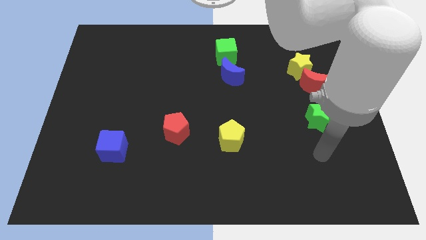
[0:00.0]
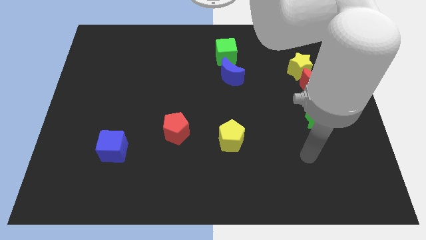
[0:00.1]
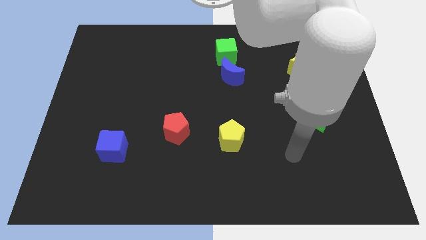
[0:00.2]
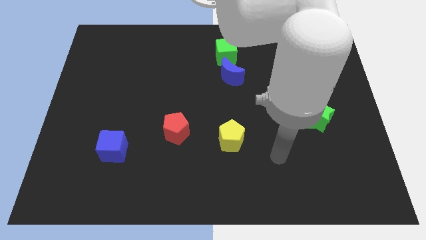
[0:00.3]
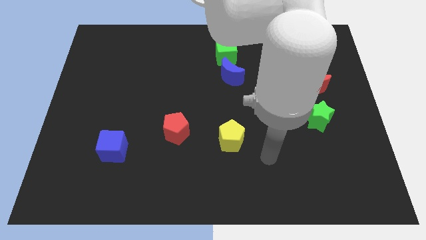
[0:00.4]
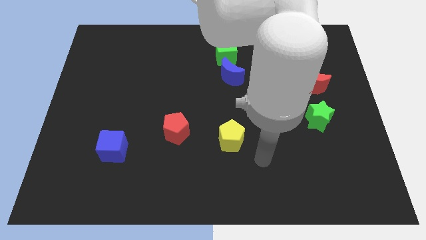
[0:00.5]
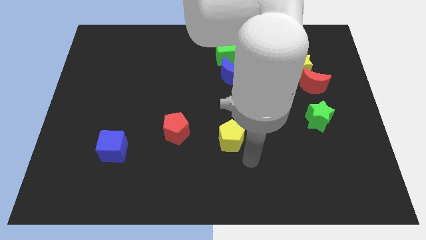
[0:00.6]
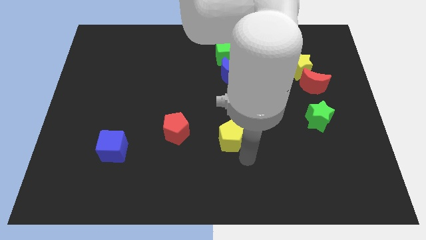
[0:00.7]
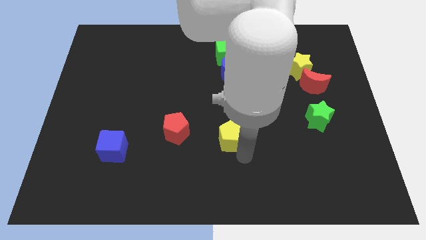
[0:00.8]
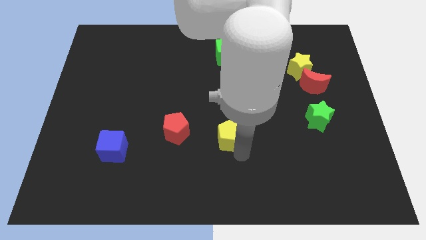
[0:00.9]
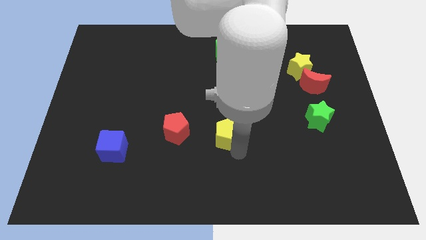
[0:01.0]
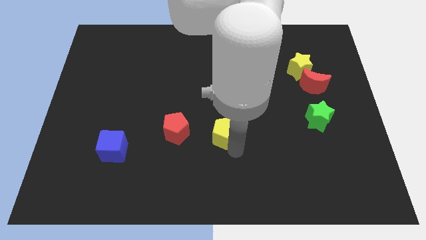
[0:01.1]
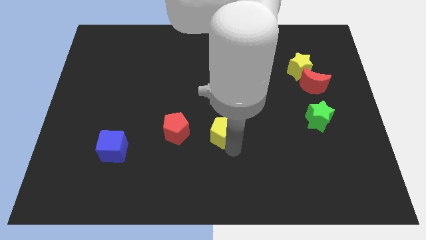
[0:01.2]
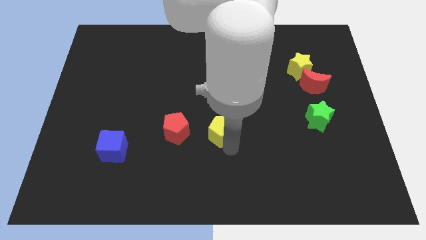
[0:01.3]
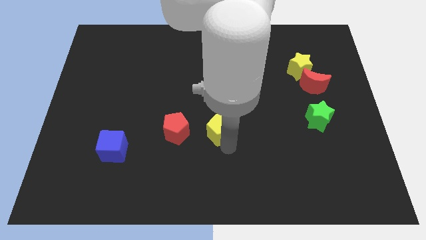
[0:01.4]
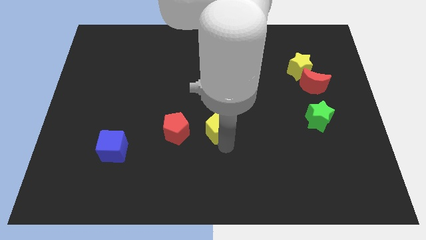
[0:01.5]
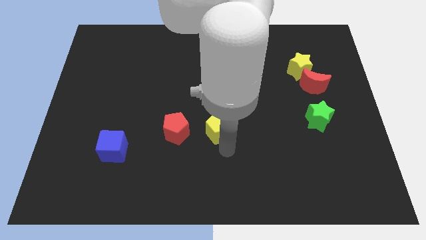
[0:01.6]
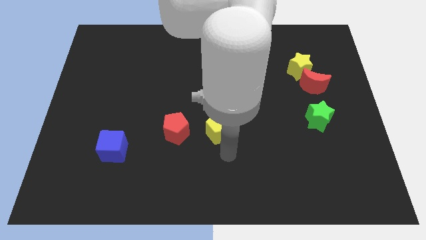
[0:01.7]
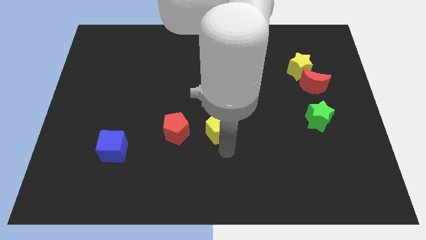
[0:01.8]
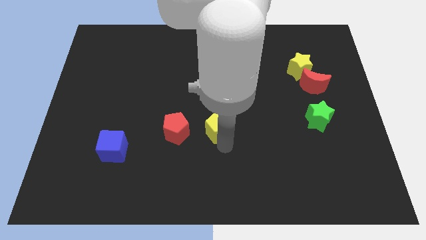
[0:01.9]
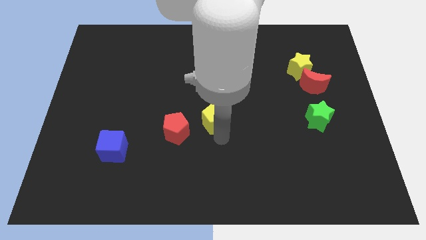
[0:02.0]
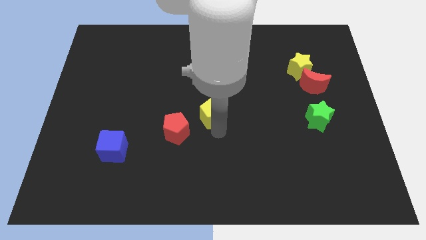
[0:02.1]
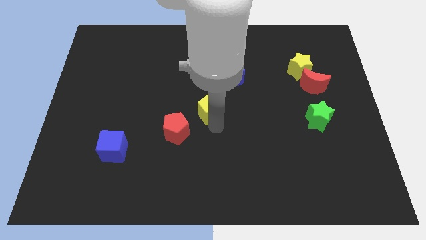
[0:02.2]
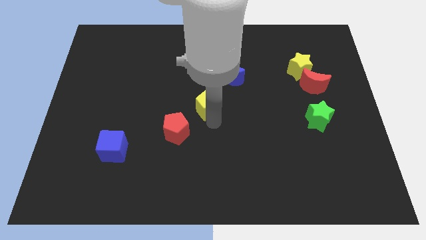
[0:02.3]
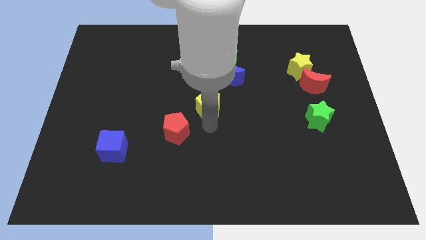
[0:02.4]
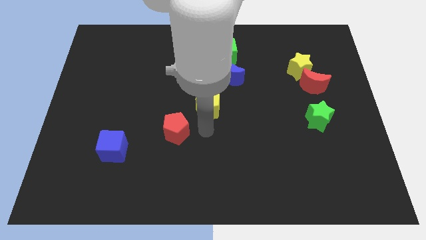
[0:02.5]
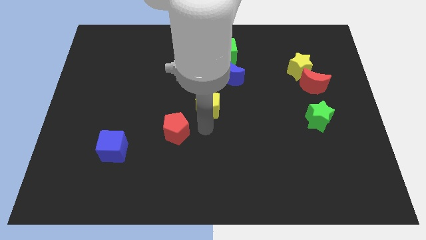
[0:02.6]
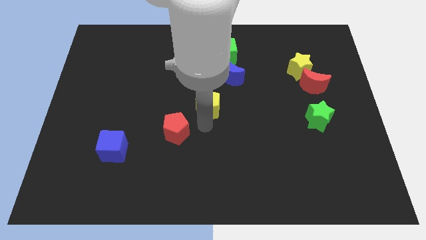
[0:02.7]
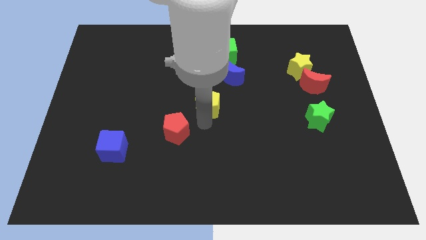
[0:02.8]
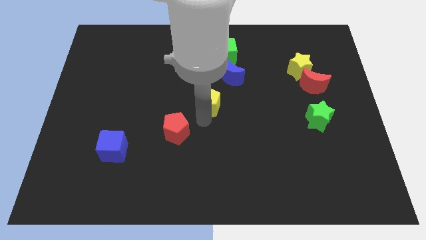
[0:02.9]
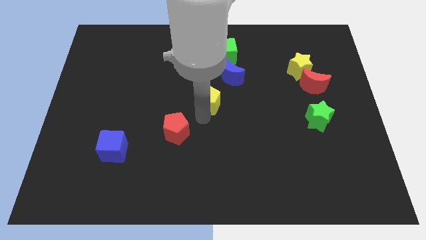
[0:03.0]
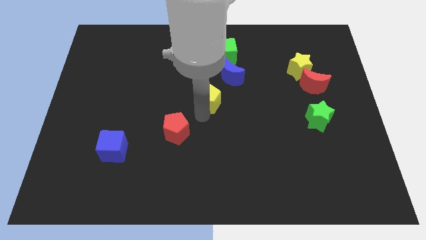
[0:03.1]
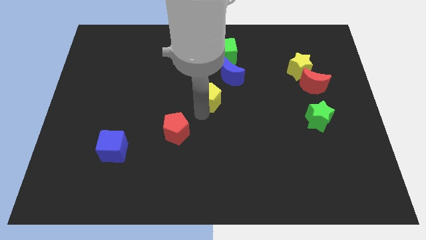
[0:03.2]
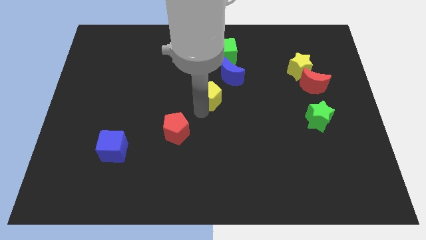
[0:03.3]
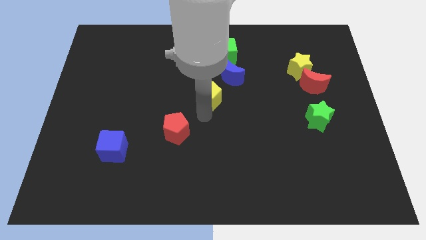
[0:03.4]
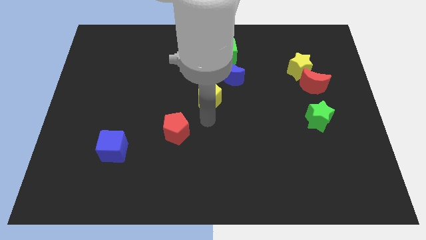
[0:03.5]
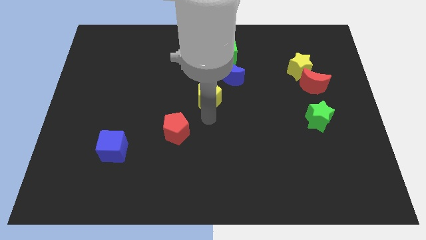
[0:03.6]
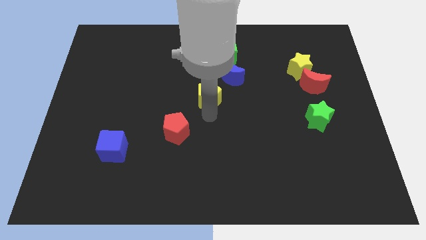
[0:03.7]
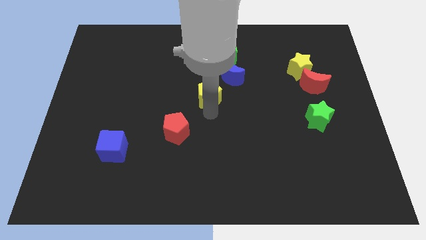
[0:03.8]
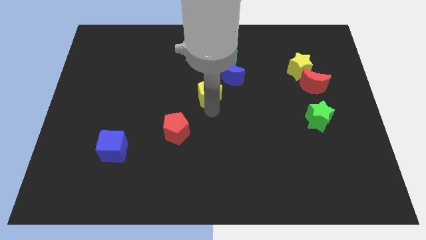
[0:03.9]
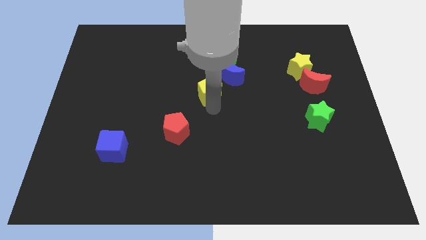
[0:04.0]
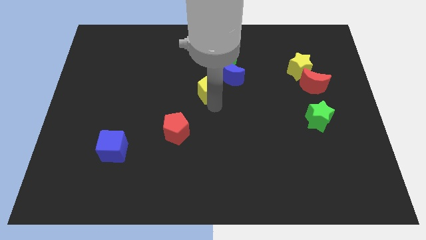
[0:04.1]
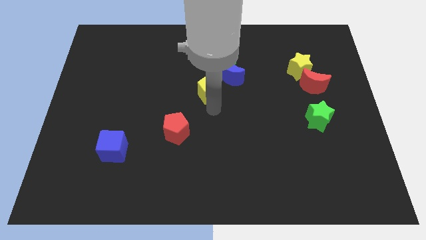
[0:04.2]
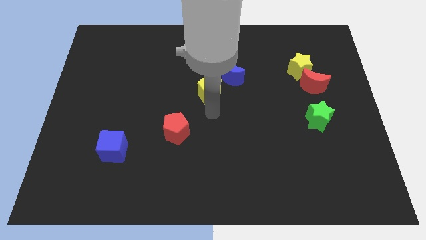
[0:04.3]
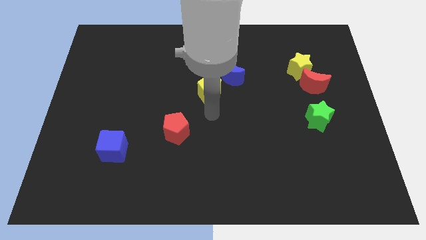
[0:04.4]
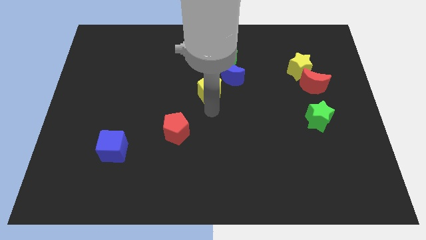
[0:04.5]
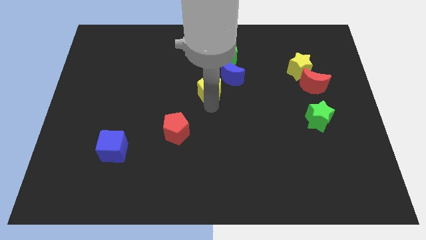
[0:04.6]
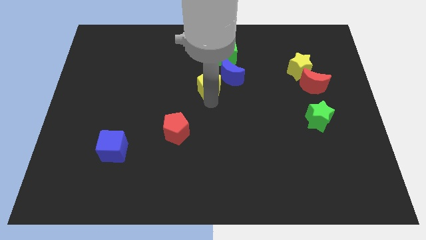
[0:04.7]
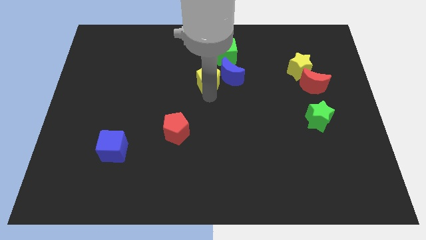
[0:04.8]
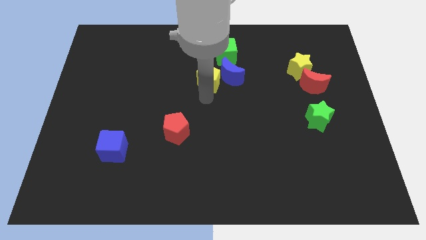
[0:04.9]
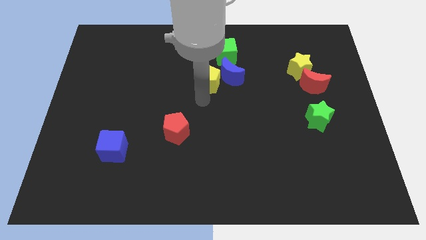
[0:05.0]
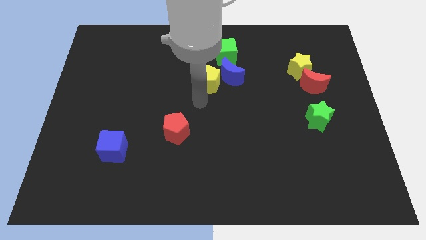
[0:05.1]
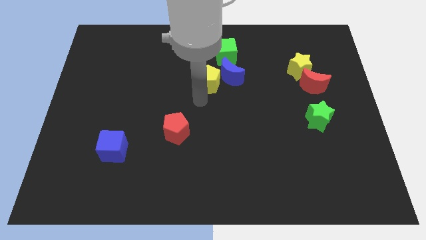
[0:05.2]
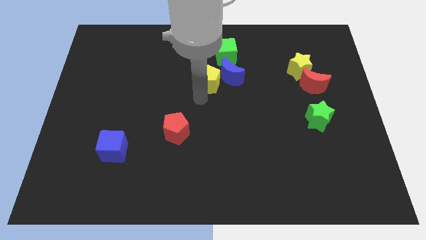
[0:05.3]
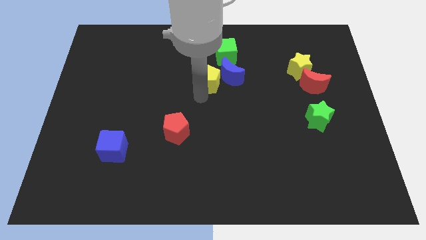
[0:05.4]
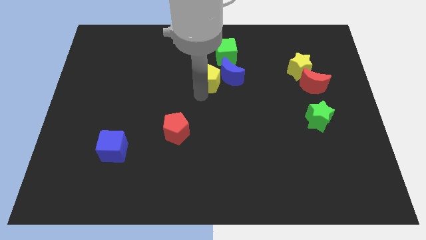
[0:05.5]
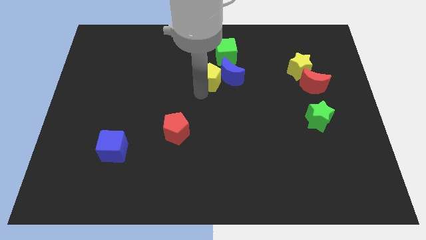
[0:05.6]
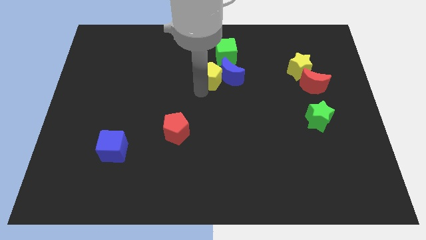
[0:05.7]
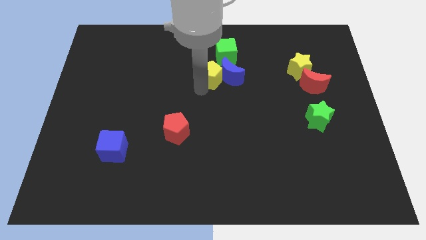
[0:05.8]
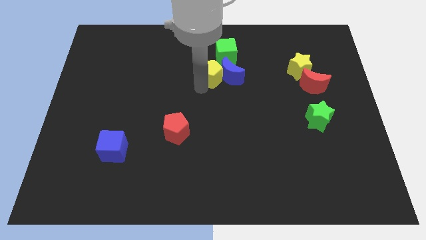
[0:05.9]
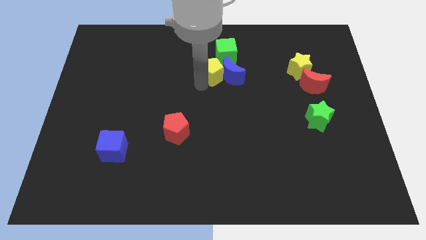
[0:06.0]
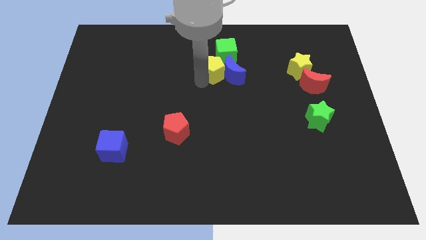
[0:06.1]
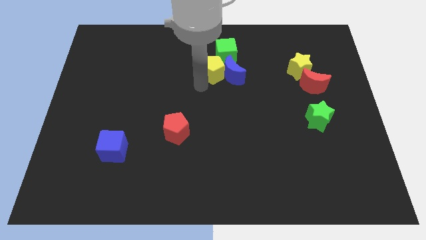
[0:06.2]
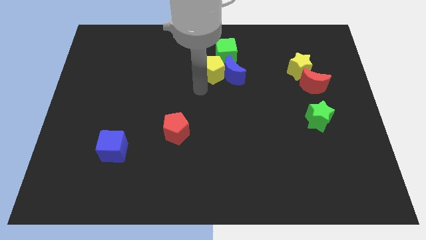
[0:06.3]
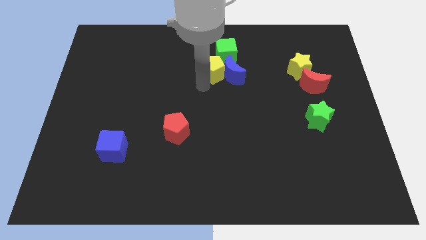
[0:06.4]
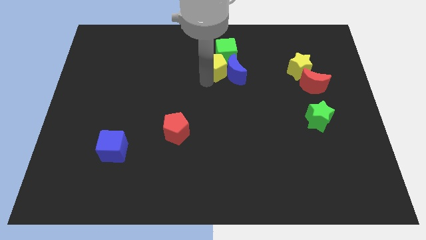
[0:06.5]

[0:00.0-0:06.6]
move the yellow pentagon towards the green cube
